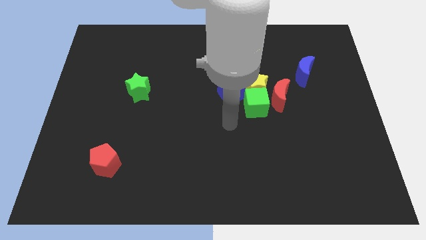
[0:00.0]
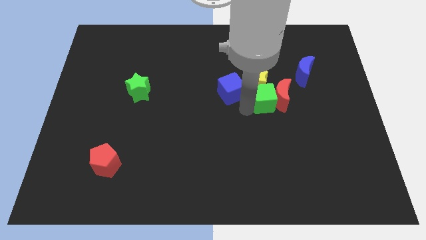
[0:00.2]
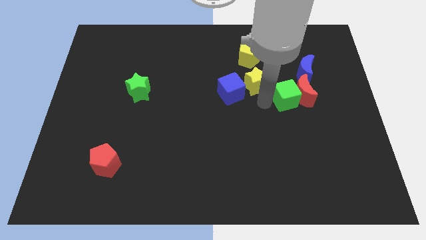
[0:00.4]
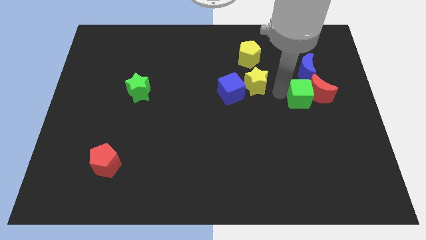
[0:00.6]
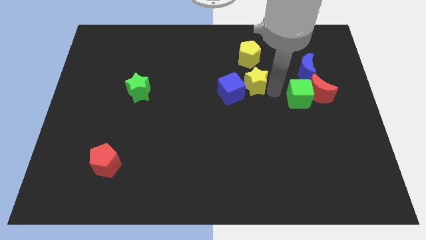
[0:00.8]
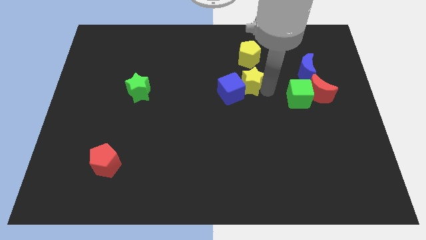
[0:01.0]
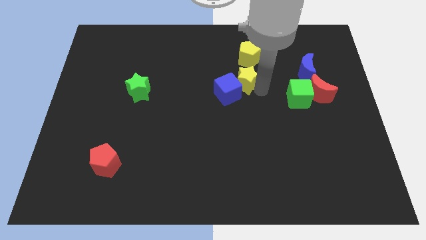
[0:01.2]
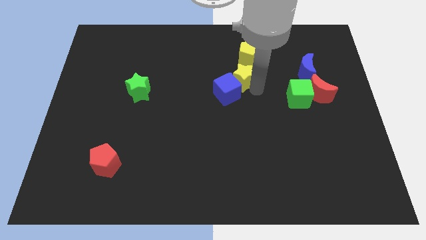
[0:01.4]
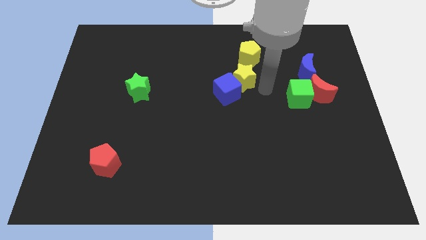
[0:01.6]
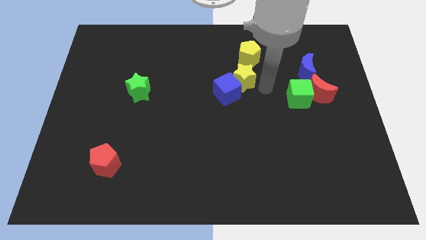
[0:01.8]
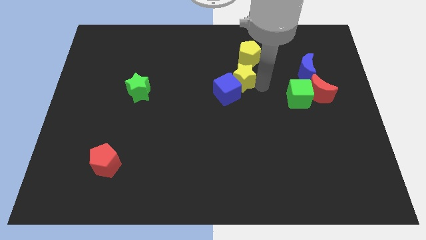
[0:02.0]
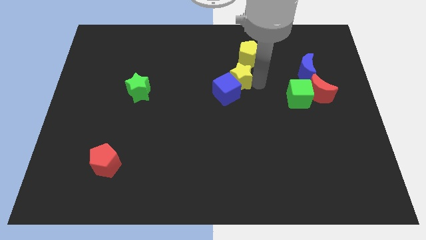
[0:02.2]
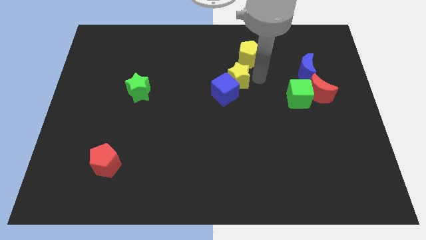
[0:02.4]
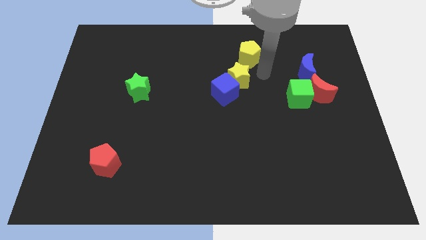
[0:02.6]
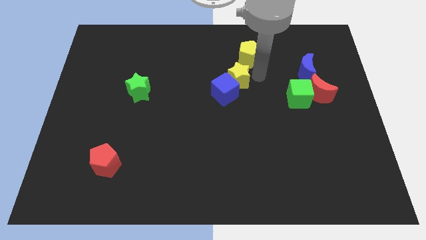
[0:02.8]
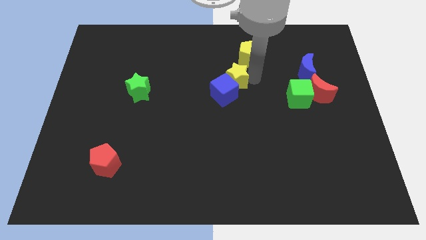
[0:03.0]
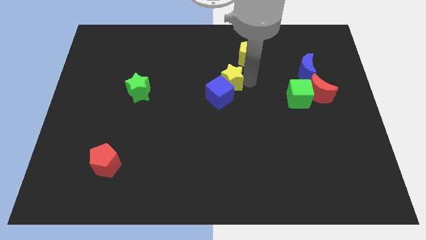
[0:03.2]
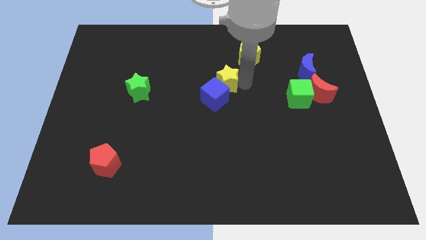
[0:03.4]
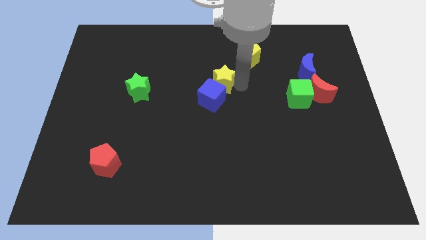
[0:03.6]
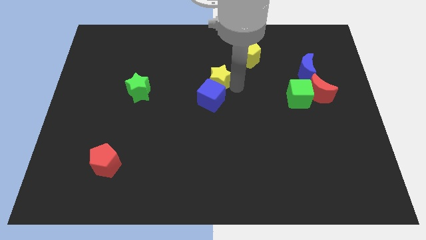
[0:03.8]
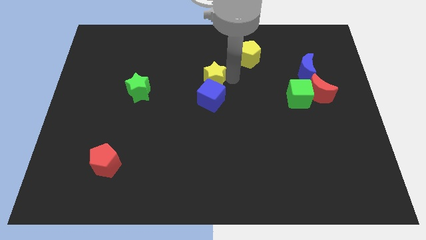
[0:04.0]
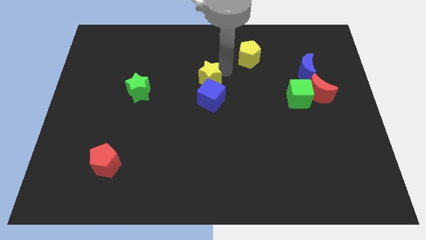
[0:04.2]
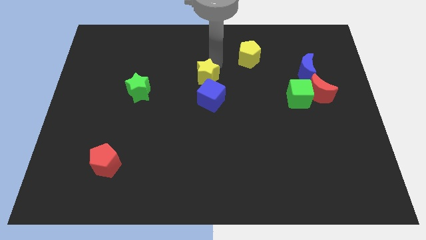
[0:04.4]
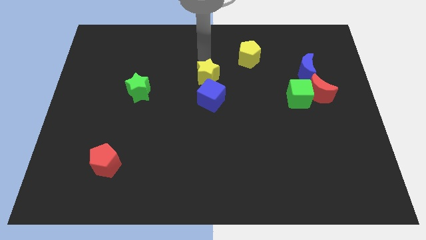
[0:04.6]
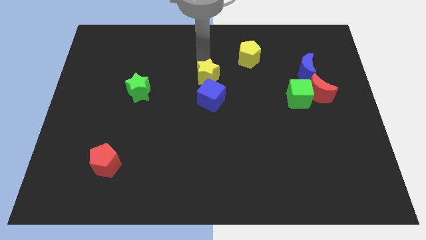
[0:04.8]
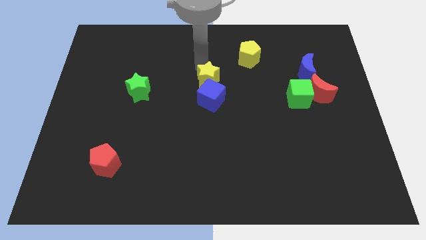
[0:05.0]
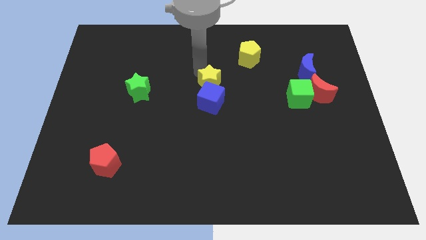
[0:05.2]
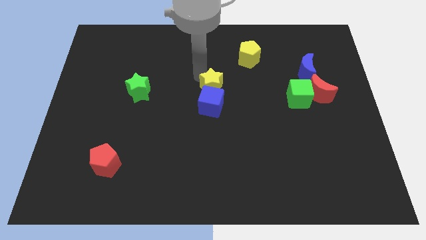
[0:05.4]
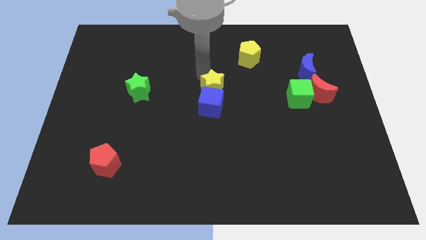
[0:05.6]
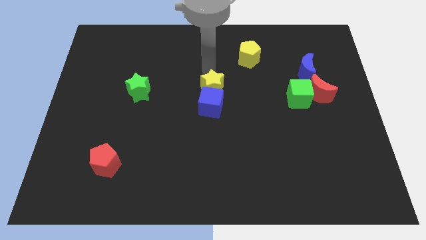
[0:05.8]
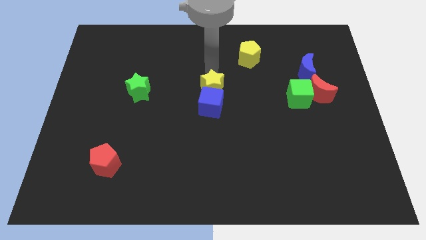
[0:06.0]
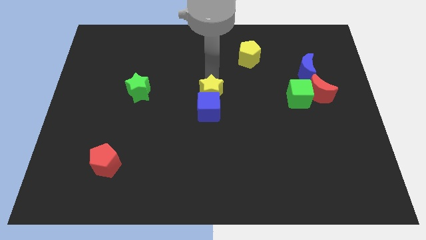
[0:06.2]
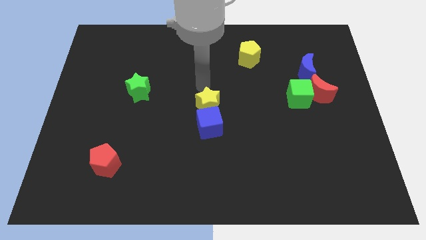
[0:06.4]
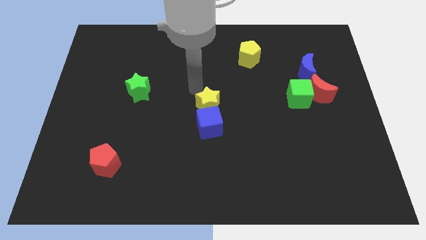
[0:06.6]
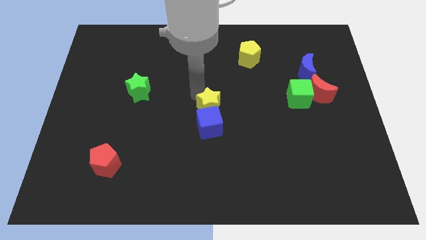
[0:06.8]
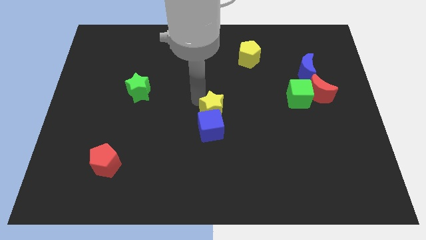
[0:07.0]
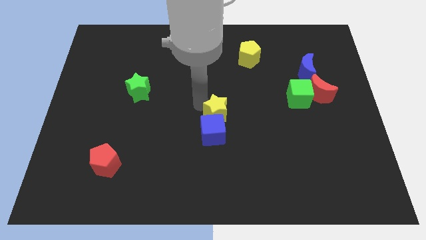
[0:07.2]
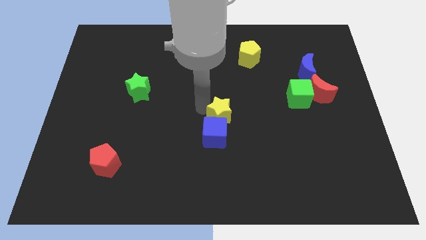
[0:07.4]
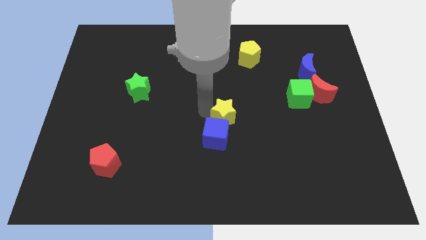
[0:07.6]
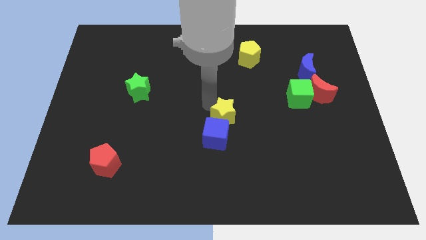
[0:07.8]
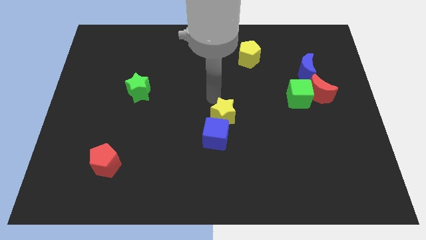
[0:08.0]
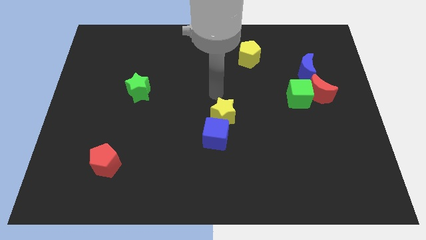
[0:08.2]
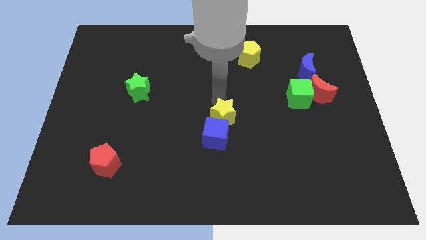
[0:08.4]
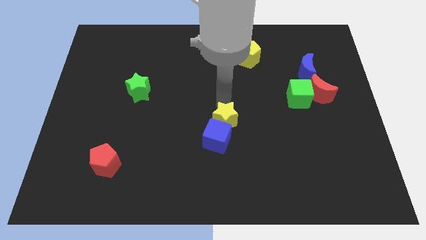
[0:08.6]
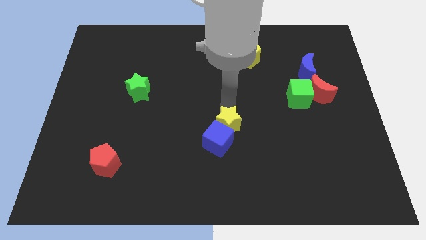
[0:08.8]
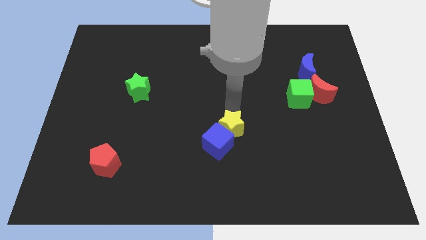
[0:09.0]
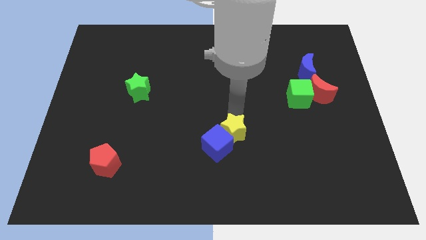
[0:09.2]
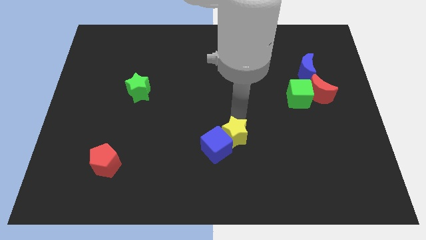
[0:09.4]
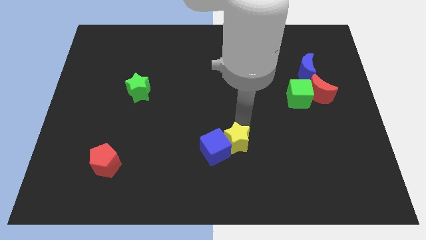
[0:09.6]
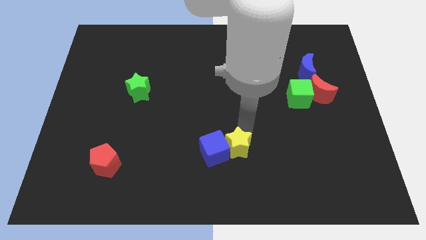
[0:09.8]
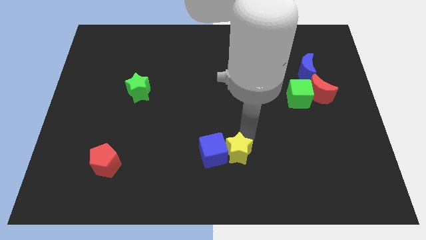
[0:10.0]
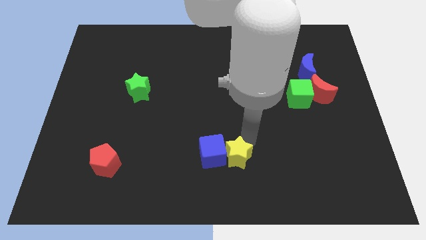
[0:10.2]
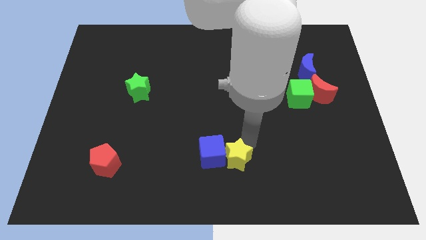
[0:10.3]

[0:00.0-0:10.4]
move the yellow star to the bottom side
